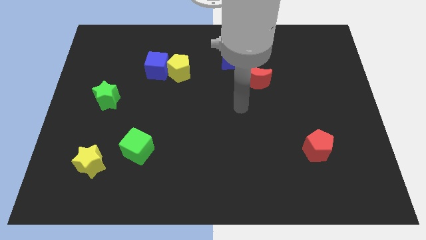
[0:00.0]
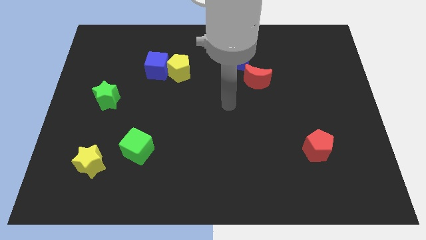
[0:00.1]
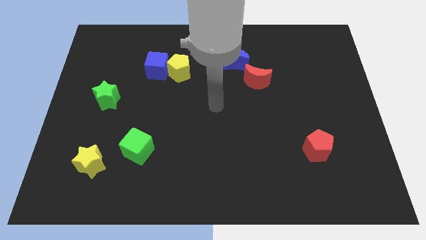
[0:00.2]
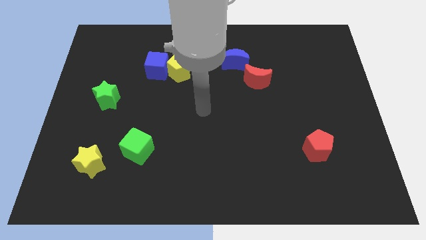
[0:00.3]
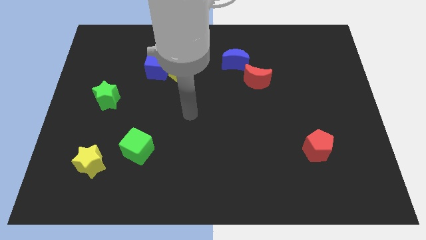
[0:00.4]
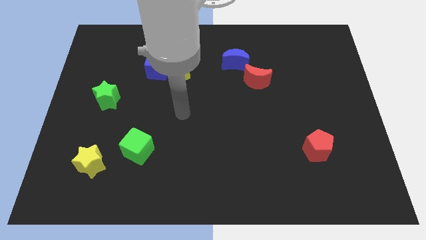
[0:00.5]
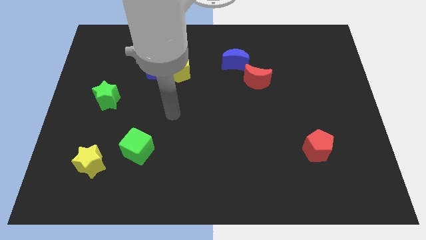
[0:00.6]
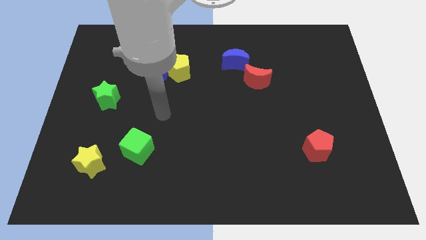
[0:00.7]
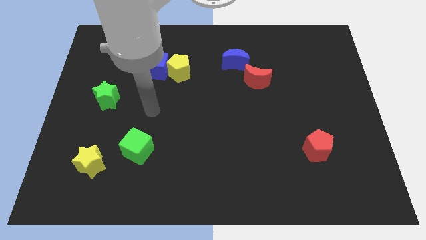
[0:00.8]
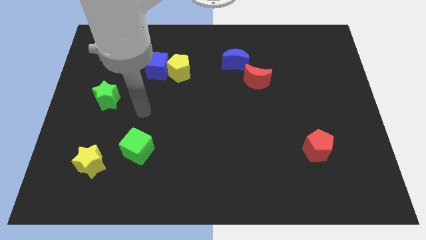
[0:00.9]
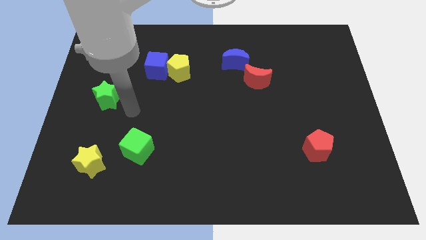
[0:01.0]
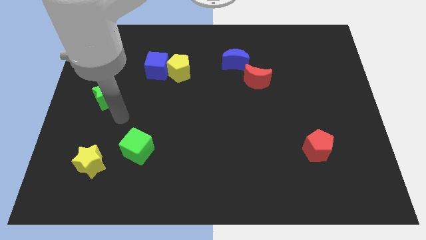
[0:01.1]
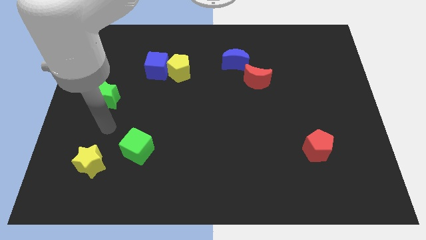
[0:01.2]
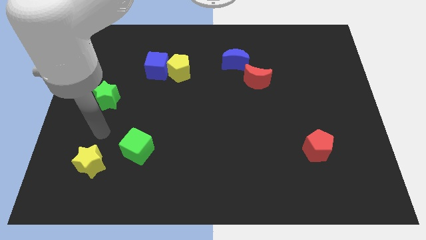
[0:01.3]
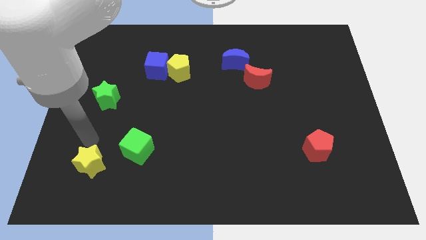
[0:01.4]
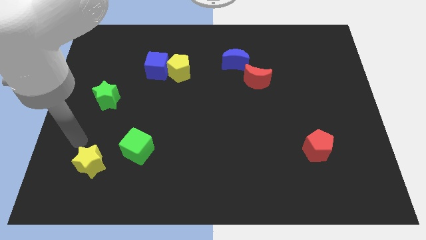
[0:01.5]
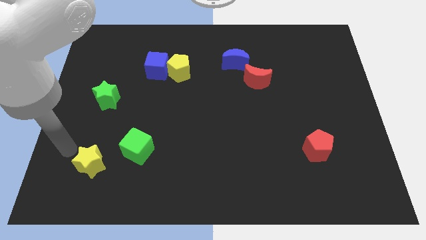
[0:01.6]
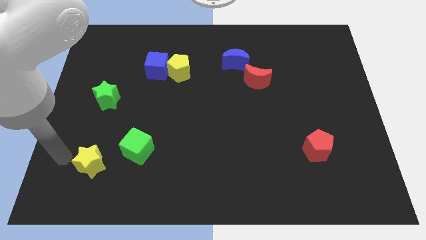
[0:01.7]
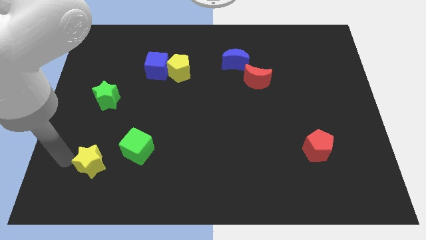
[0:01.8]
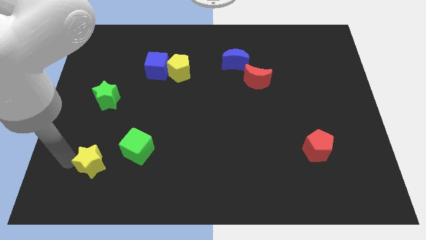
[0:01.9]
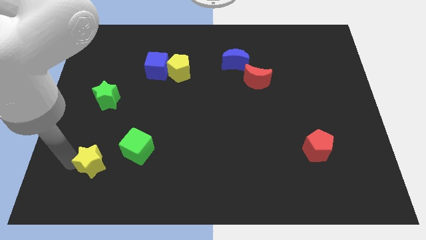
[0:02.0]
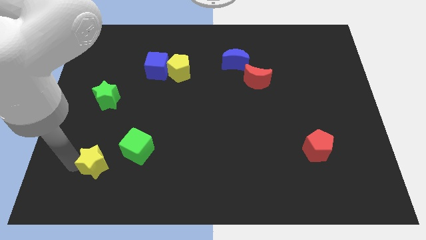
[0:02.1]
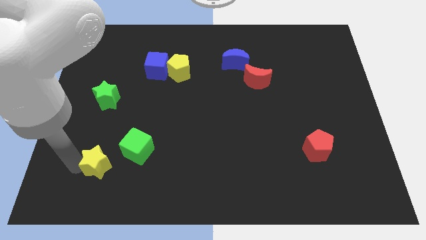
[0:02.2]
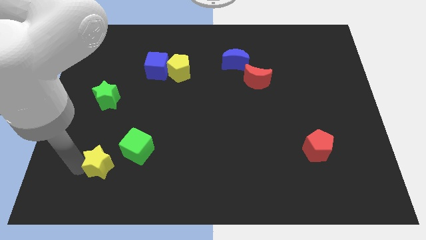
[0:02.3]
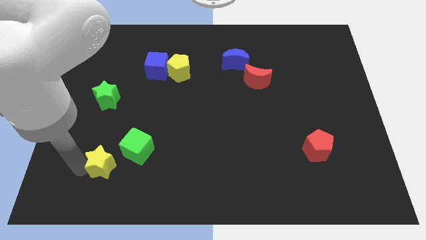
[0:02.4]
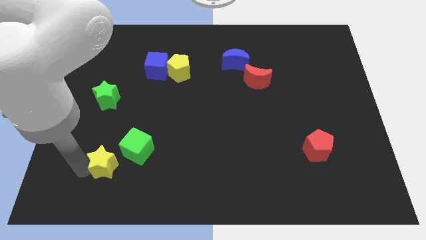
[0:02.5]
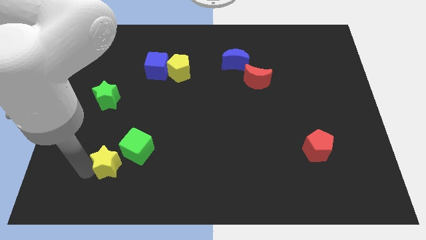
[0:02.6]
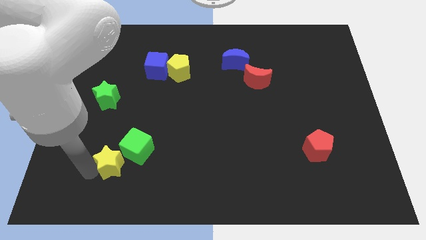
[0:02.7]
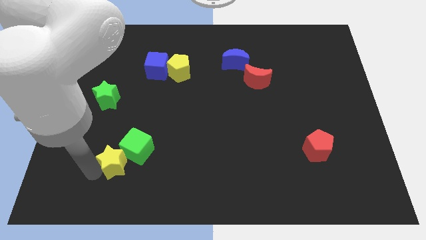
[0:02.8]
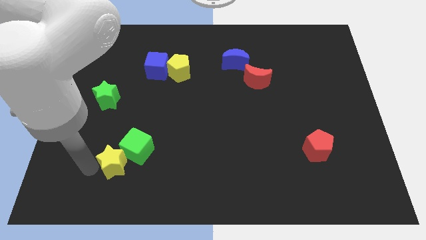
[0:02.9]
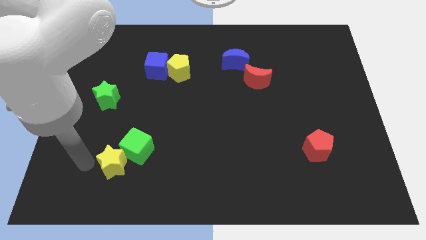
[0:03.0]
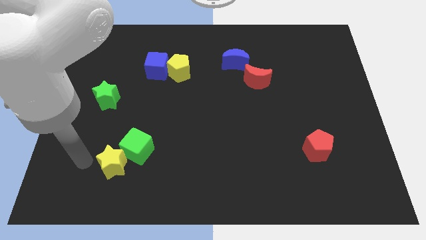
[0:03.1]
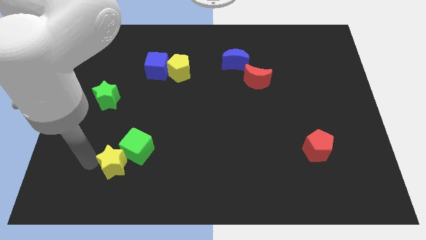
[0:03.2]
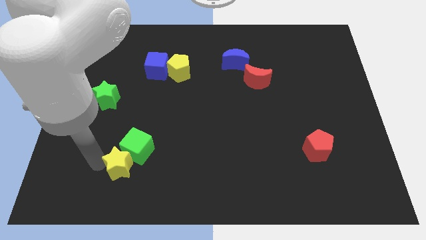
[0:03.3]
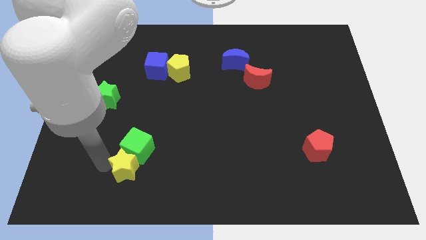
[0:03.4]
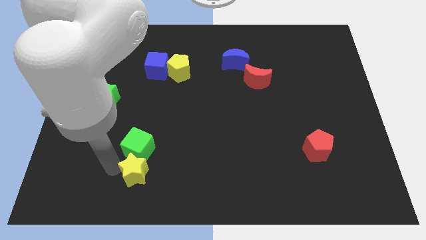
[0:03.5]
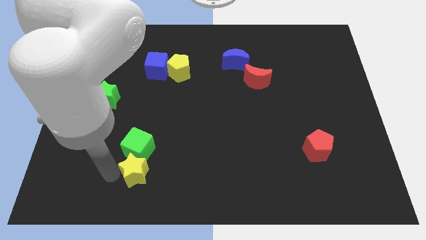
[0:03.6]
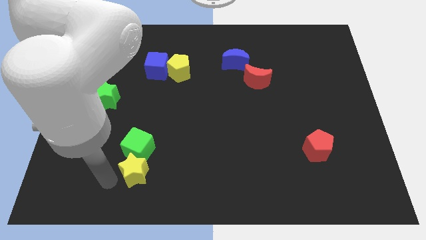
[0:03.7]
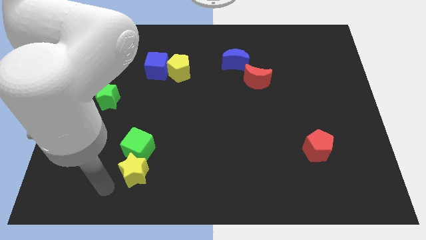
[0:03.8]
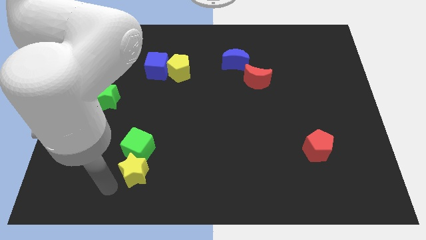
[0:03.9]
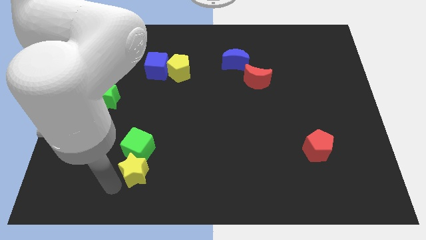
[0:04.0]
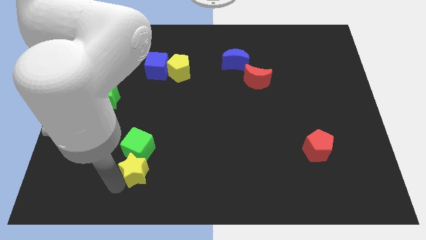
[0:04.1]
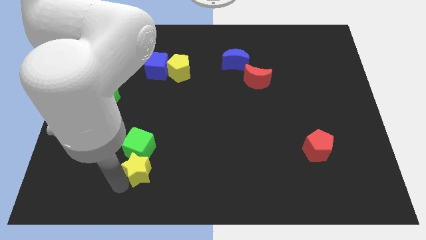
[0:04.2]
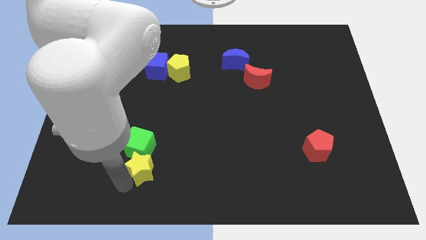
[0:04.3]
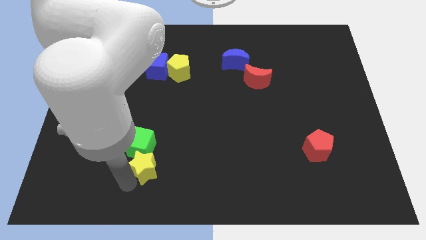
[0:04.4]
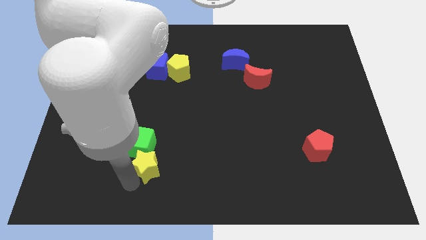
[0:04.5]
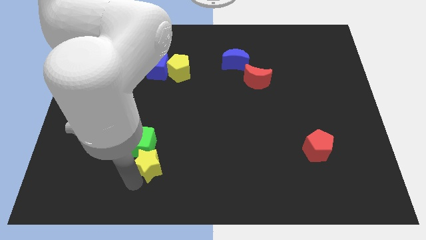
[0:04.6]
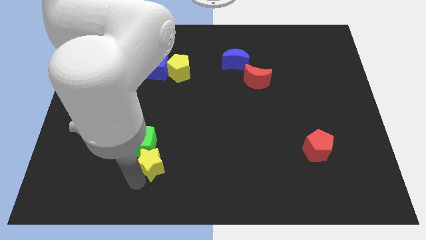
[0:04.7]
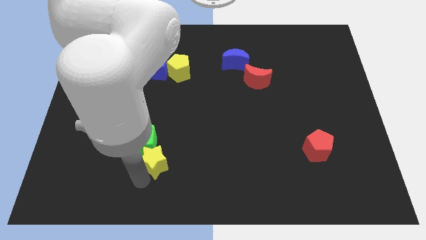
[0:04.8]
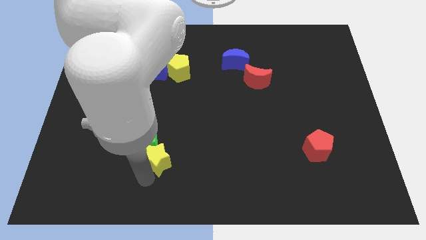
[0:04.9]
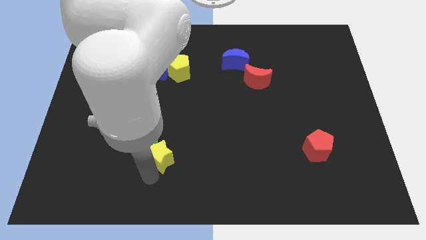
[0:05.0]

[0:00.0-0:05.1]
push the yellow star just right of the green cube

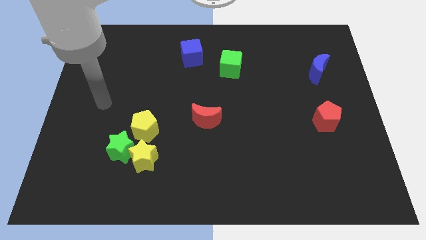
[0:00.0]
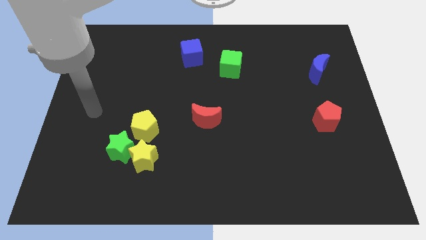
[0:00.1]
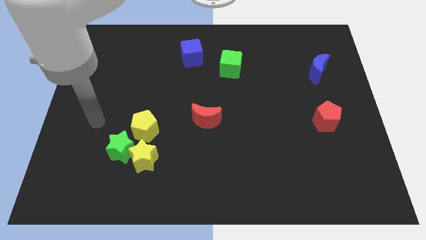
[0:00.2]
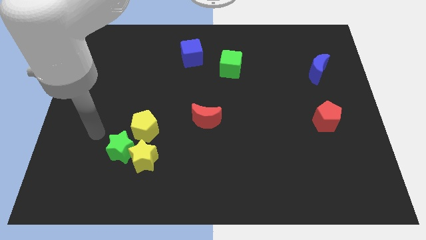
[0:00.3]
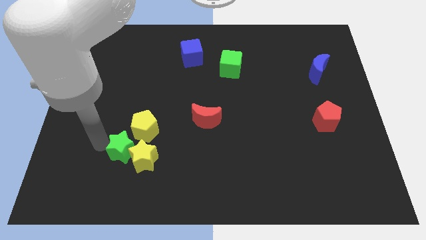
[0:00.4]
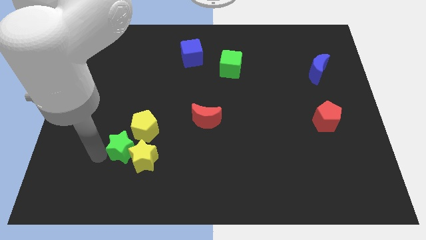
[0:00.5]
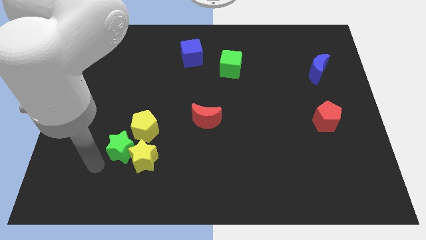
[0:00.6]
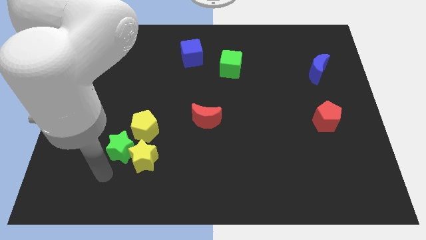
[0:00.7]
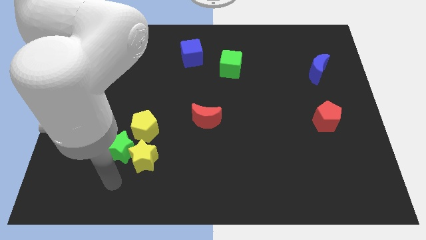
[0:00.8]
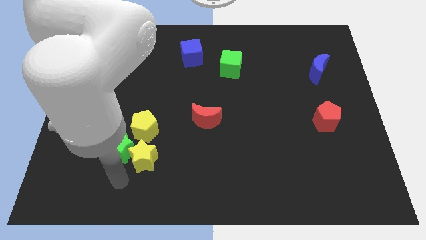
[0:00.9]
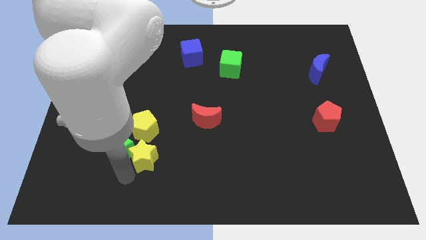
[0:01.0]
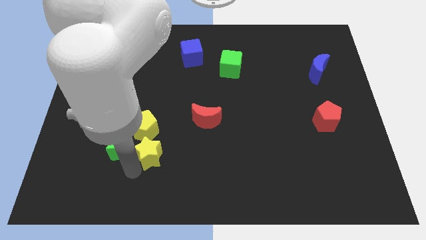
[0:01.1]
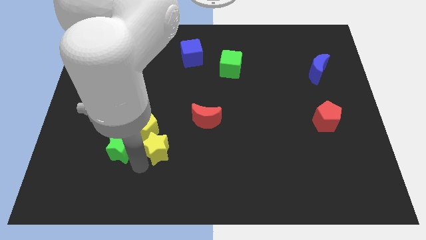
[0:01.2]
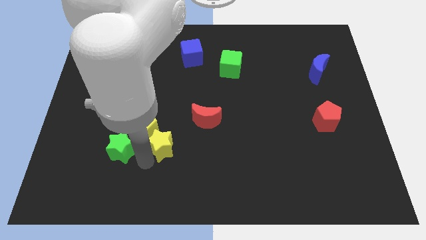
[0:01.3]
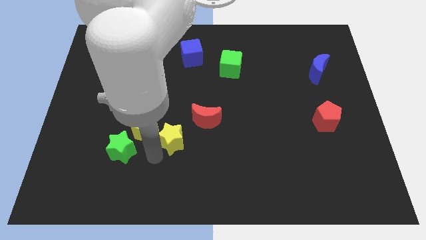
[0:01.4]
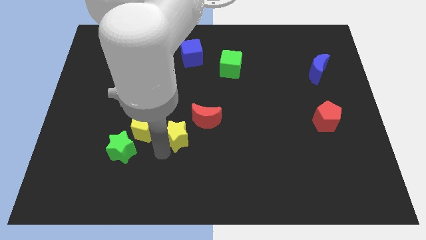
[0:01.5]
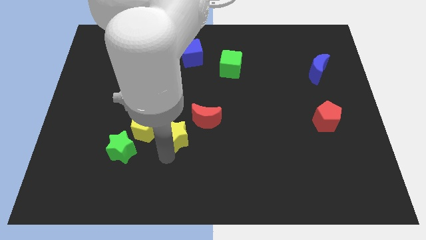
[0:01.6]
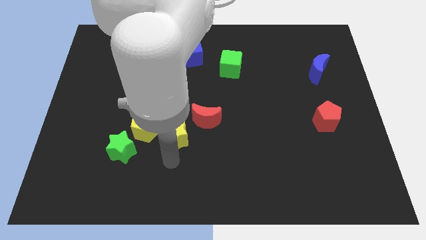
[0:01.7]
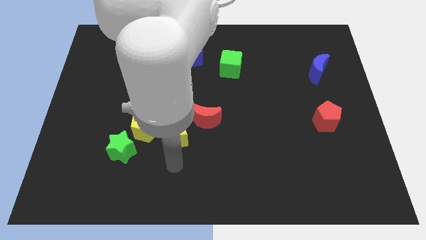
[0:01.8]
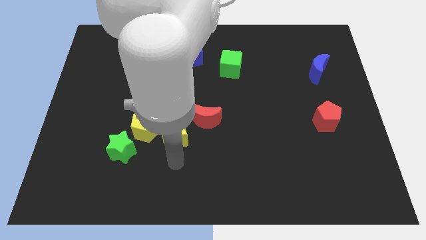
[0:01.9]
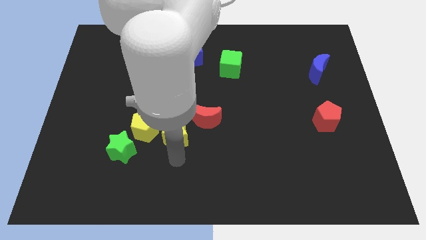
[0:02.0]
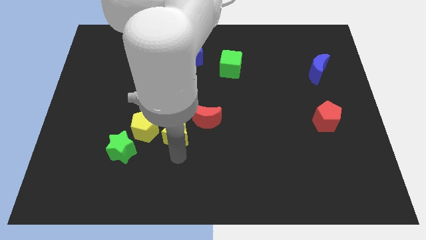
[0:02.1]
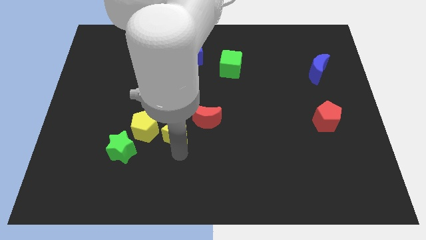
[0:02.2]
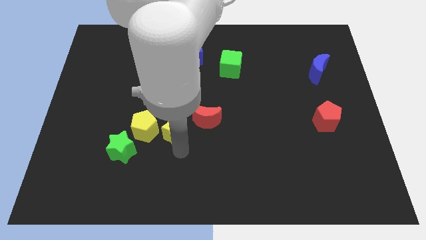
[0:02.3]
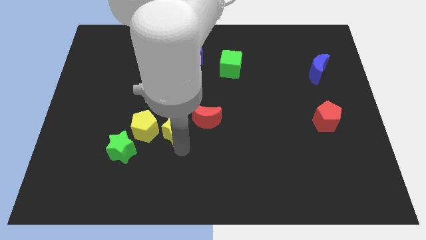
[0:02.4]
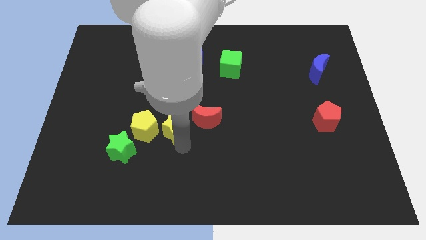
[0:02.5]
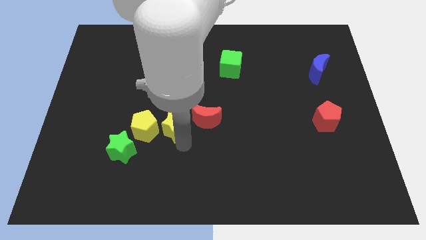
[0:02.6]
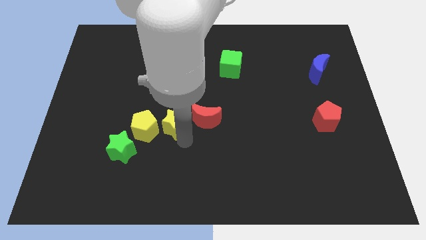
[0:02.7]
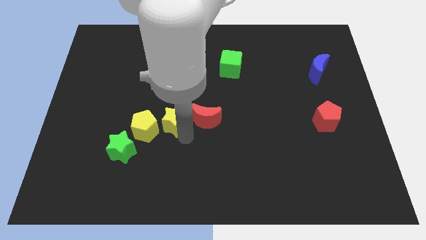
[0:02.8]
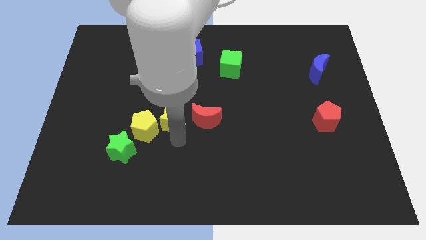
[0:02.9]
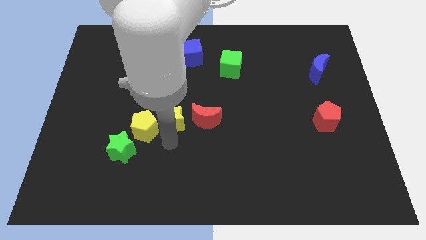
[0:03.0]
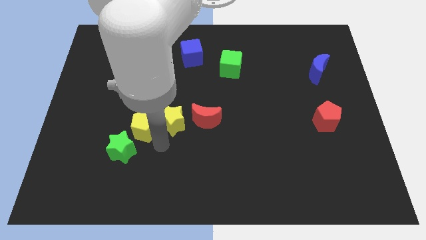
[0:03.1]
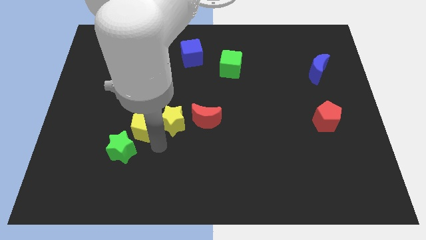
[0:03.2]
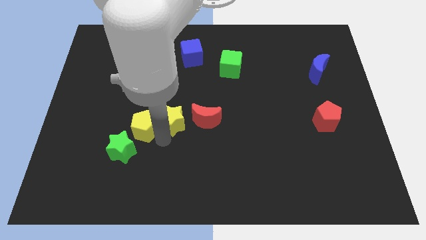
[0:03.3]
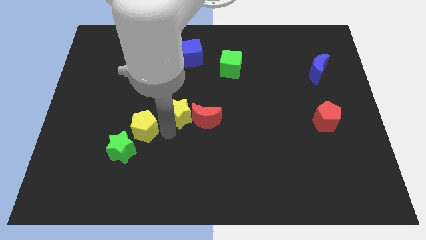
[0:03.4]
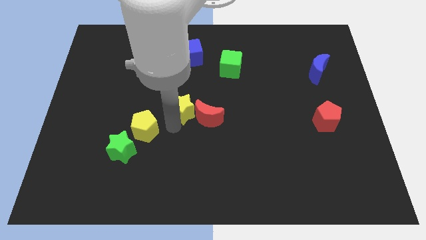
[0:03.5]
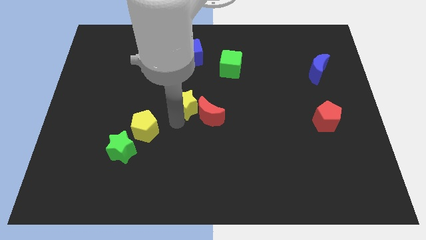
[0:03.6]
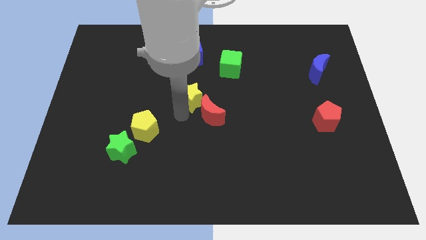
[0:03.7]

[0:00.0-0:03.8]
move the yellow star to the top side of the red moon
